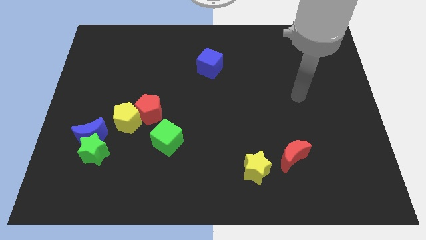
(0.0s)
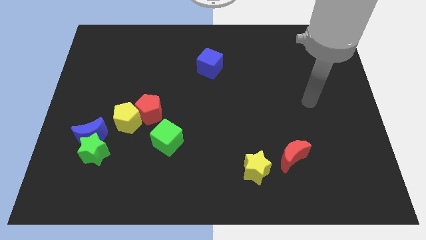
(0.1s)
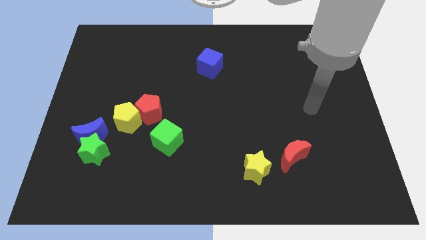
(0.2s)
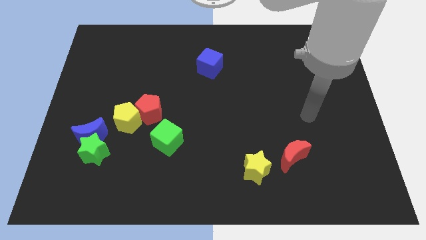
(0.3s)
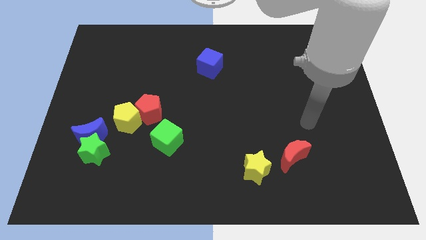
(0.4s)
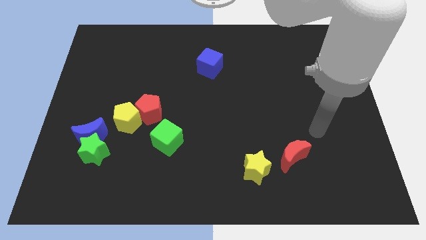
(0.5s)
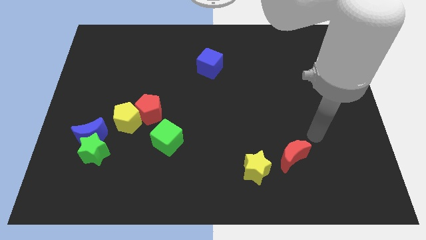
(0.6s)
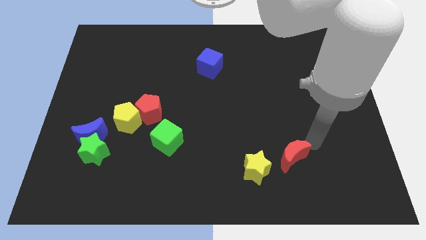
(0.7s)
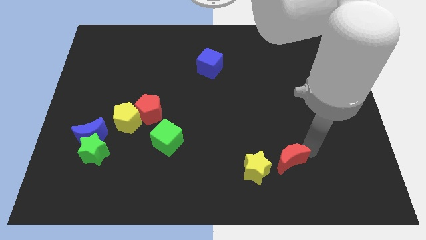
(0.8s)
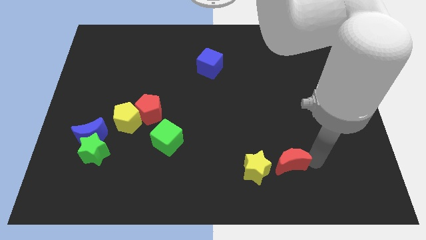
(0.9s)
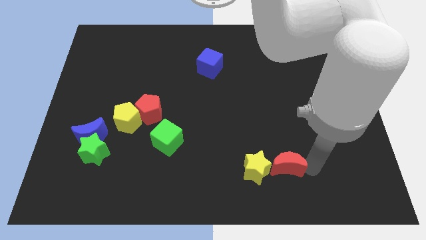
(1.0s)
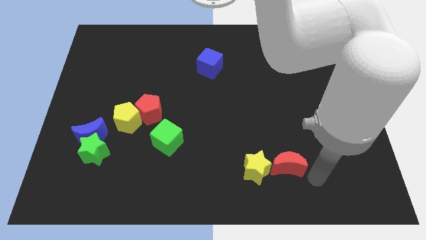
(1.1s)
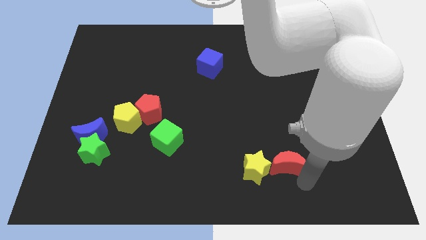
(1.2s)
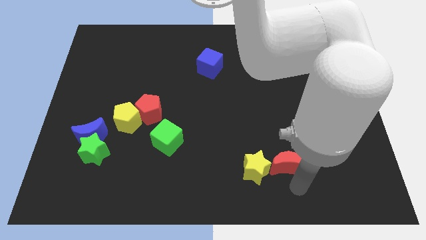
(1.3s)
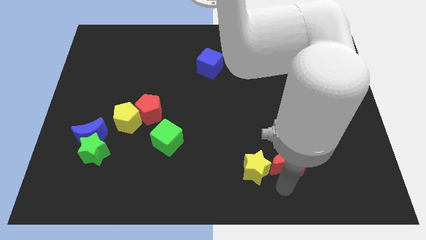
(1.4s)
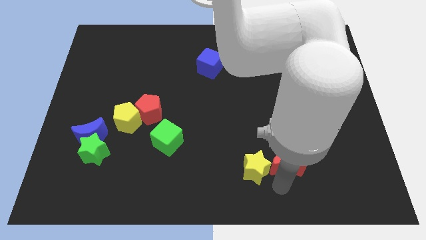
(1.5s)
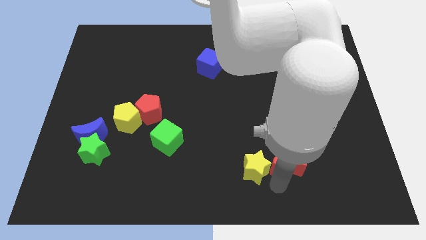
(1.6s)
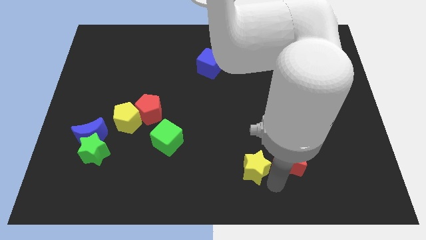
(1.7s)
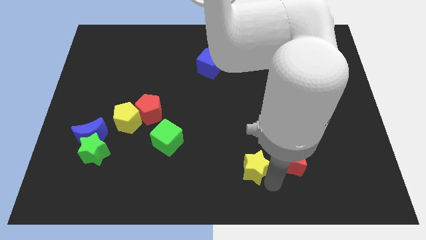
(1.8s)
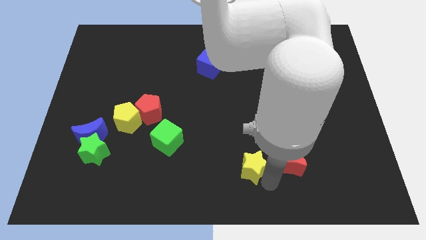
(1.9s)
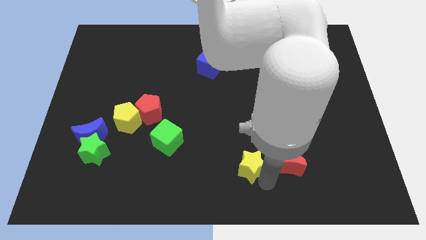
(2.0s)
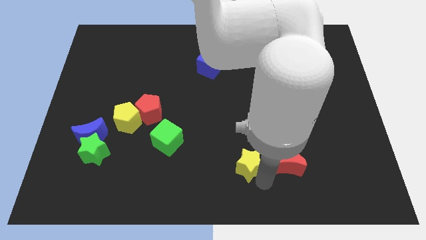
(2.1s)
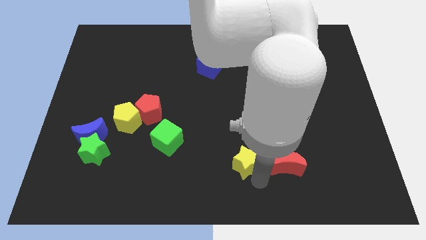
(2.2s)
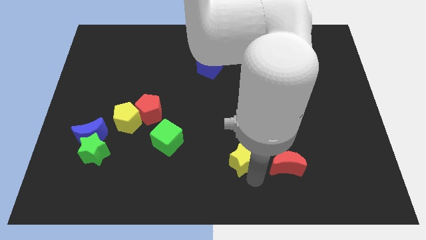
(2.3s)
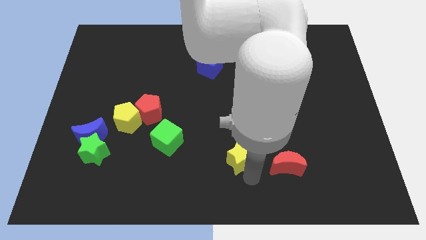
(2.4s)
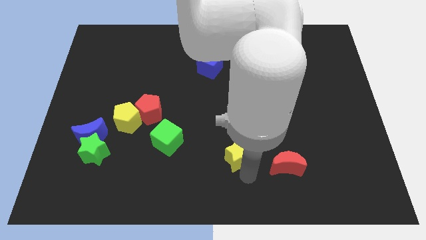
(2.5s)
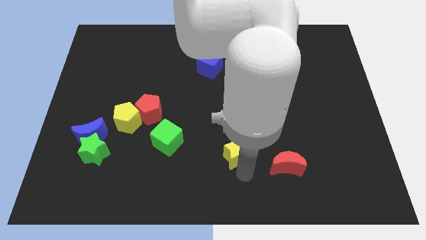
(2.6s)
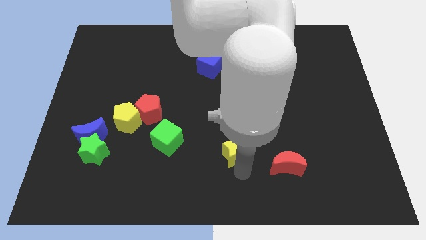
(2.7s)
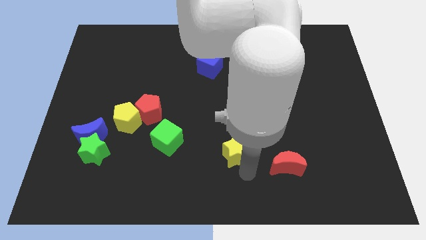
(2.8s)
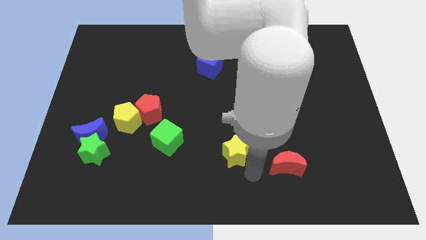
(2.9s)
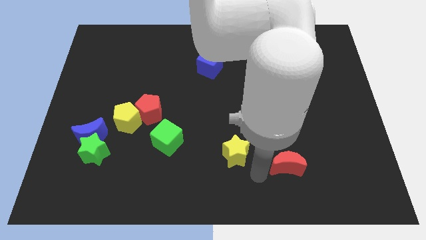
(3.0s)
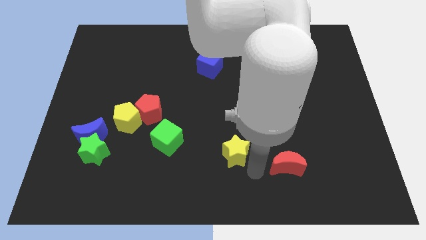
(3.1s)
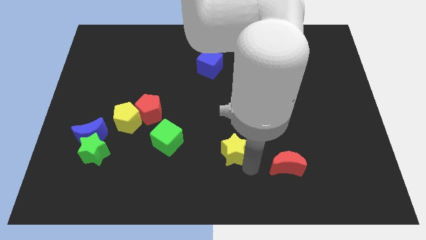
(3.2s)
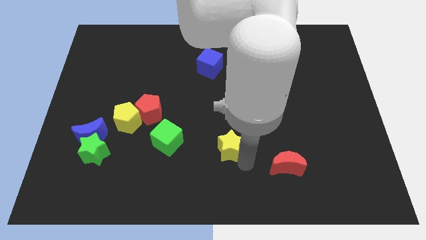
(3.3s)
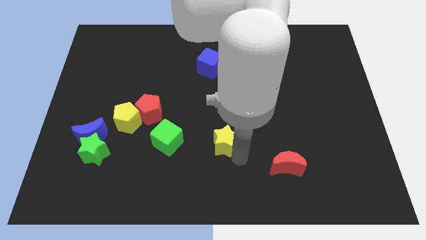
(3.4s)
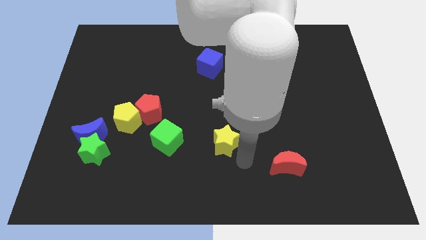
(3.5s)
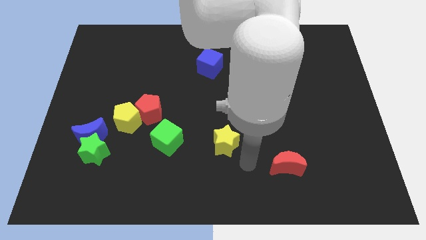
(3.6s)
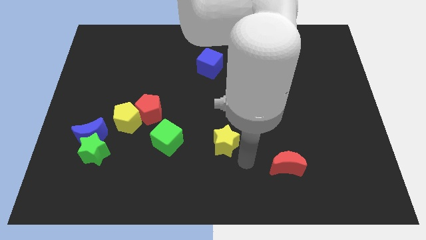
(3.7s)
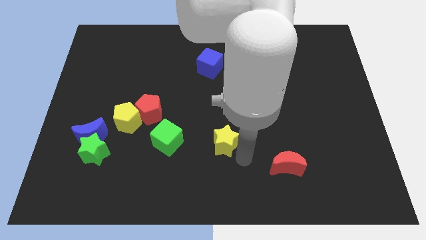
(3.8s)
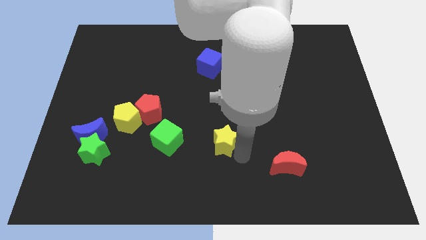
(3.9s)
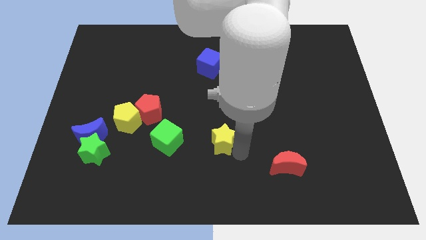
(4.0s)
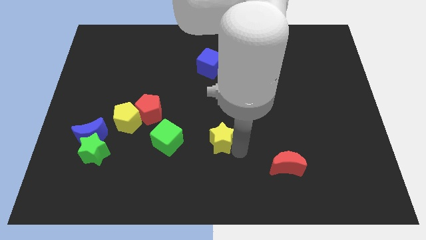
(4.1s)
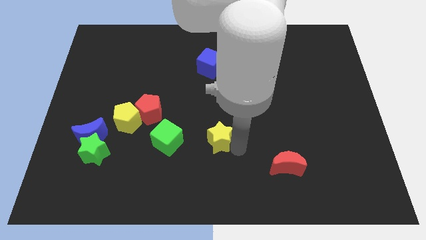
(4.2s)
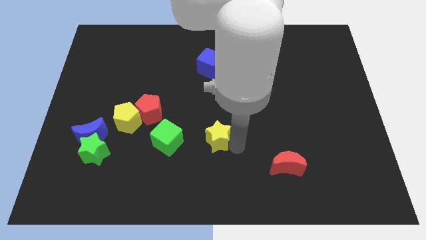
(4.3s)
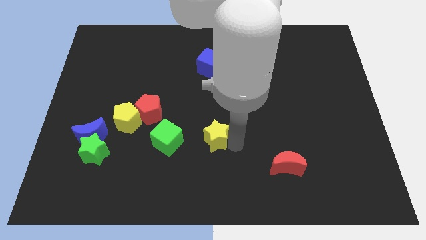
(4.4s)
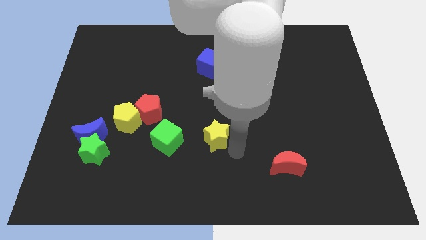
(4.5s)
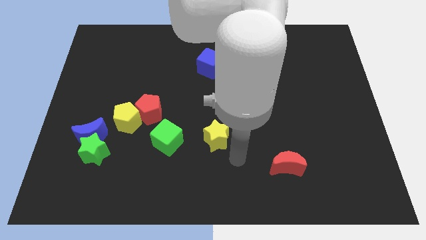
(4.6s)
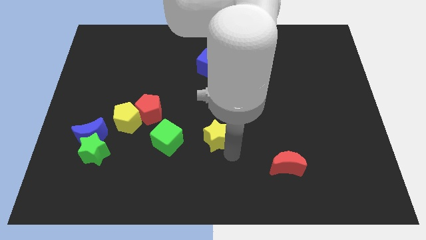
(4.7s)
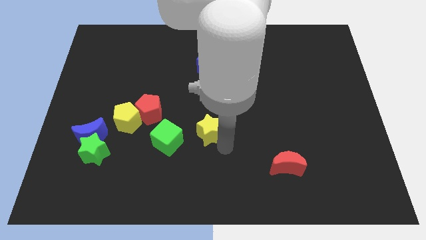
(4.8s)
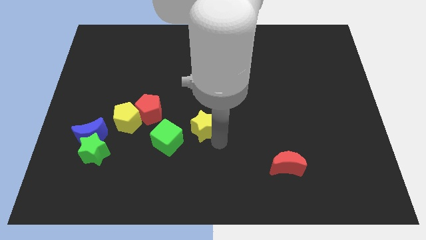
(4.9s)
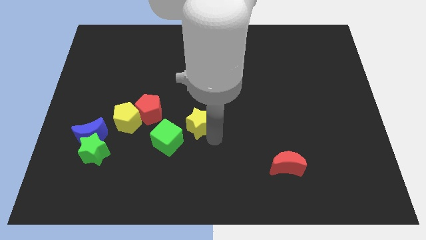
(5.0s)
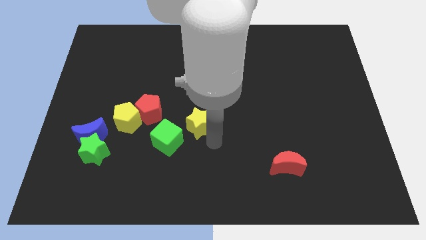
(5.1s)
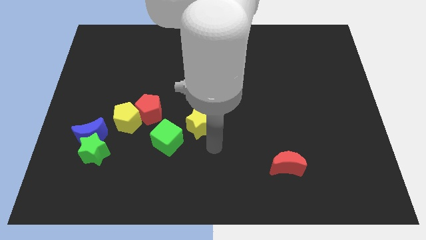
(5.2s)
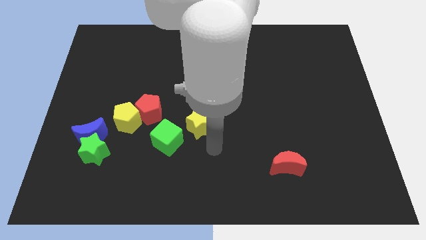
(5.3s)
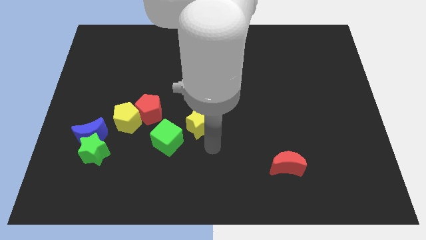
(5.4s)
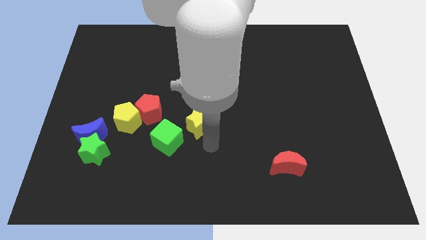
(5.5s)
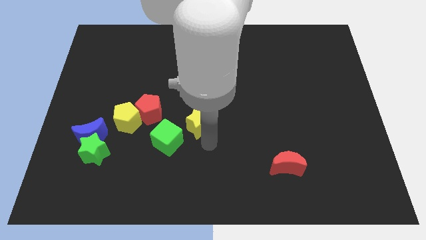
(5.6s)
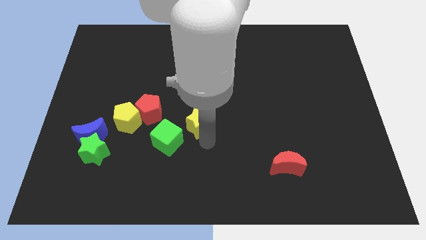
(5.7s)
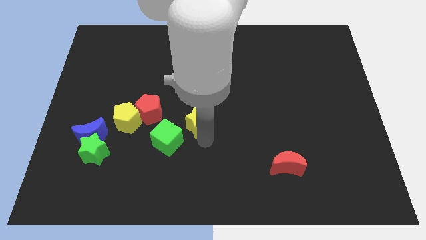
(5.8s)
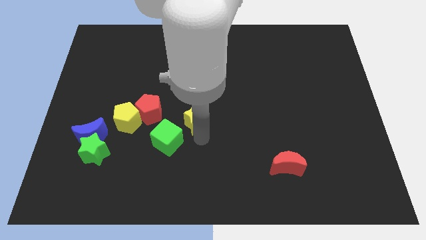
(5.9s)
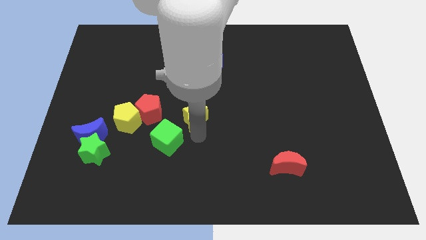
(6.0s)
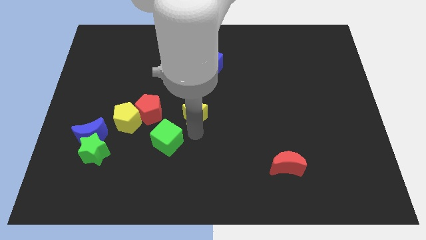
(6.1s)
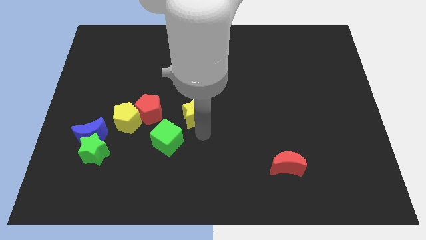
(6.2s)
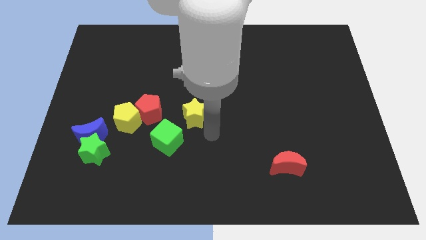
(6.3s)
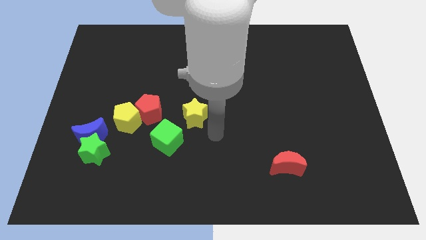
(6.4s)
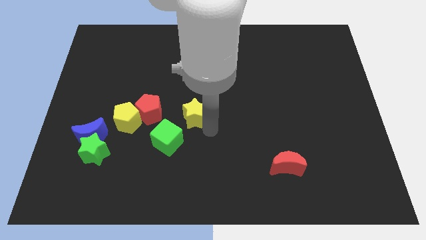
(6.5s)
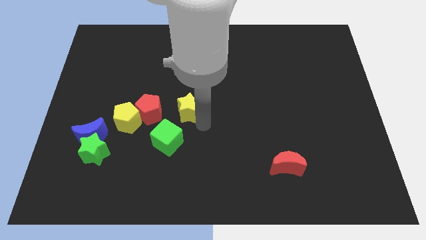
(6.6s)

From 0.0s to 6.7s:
slide the yellow star upwards and then to the left

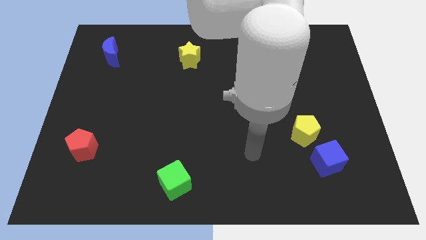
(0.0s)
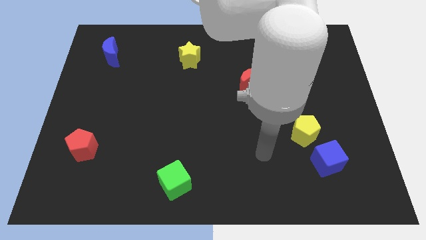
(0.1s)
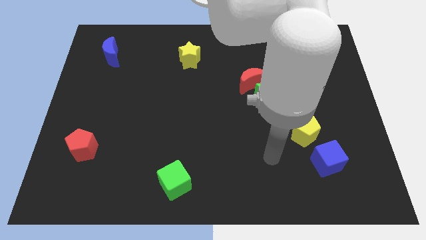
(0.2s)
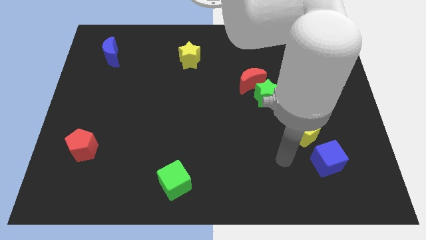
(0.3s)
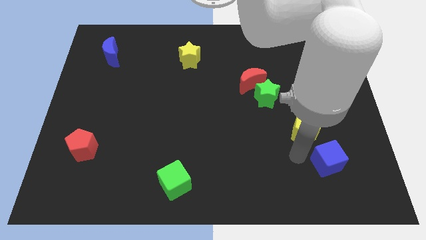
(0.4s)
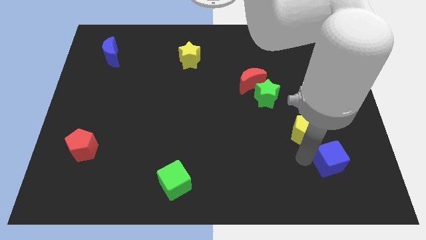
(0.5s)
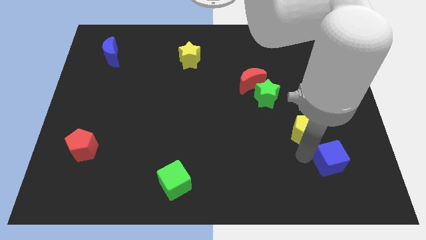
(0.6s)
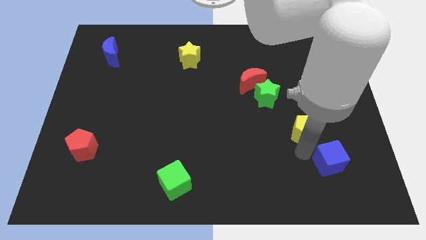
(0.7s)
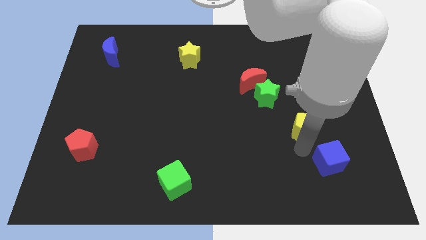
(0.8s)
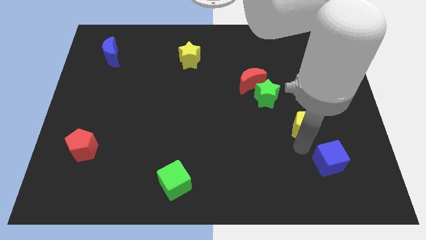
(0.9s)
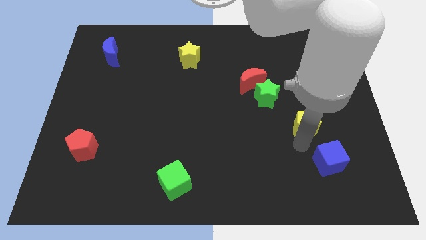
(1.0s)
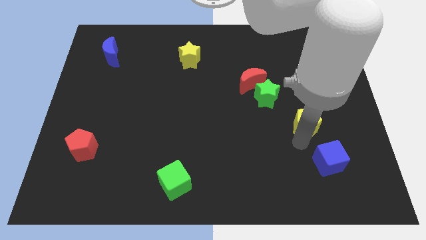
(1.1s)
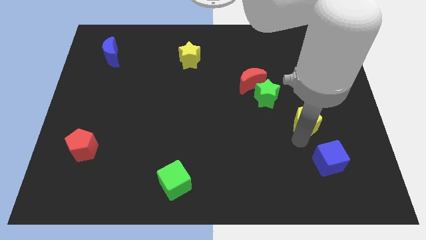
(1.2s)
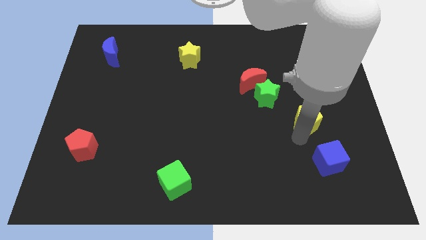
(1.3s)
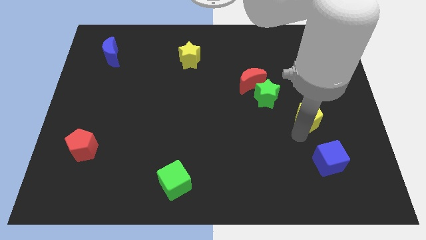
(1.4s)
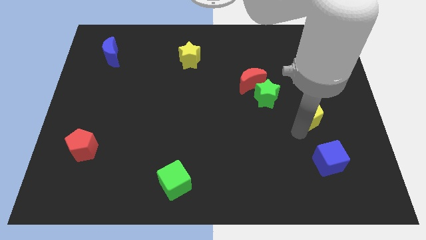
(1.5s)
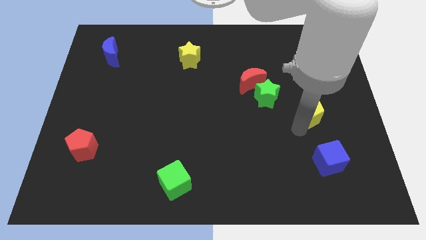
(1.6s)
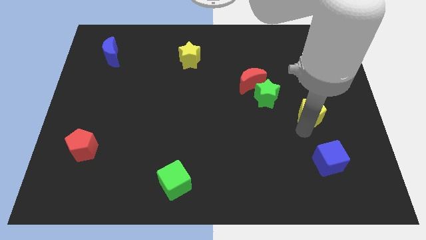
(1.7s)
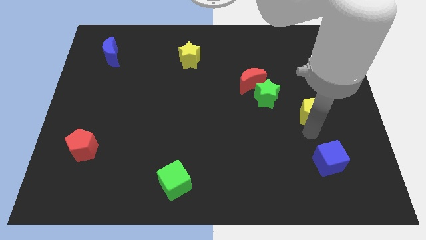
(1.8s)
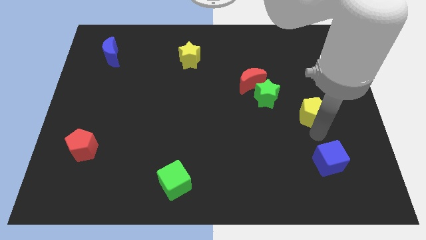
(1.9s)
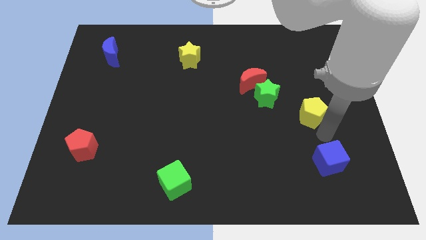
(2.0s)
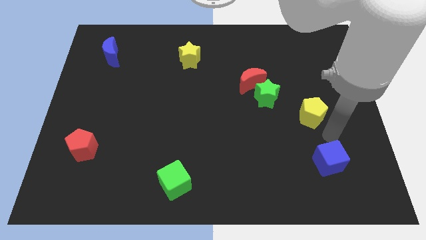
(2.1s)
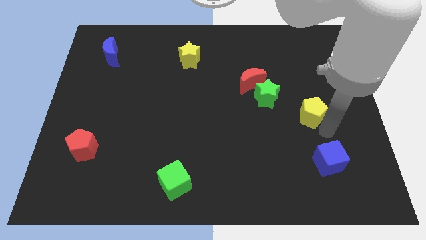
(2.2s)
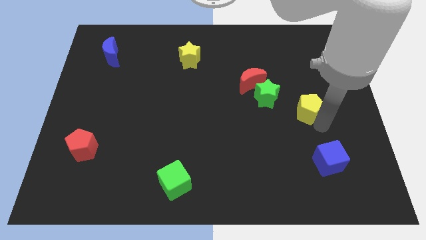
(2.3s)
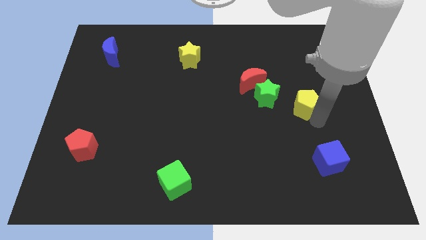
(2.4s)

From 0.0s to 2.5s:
slightly slide the yellow pentagon upwards
